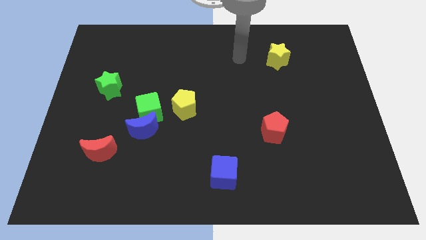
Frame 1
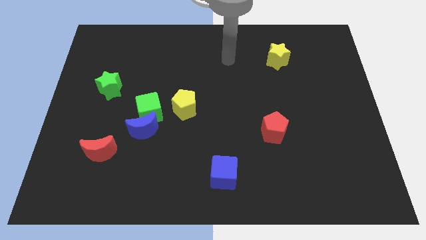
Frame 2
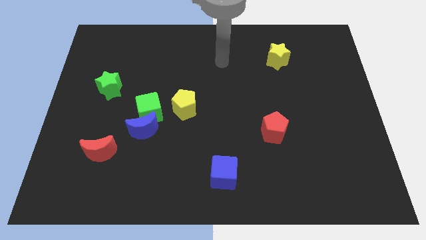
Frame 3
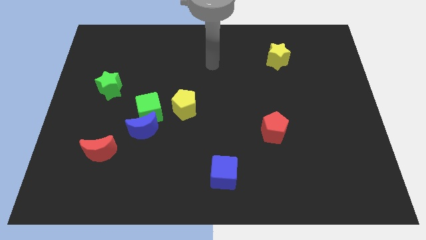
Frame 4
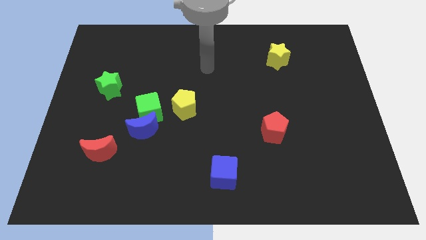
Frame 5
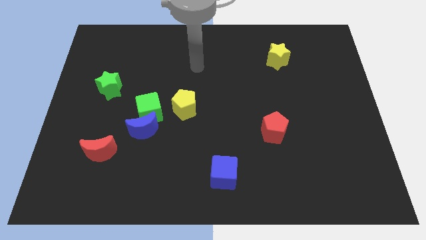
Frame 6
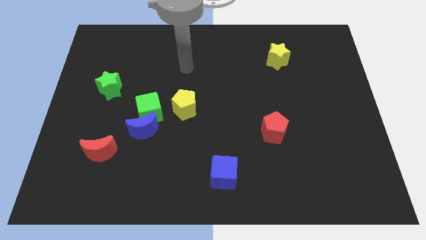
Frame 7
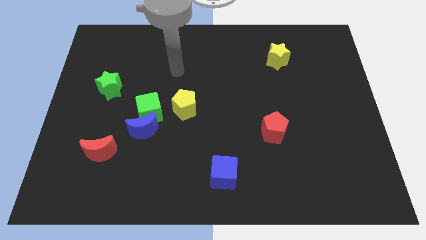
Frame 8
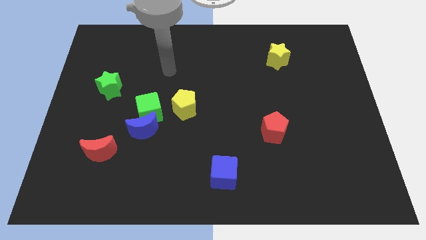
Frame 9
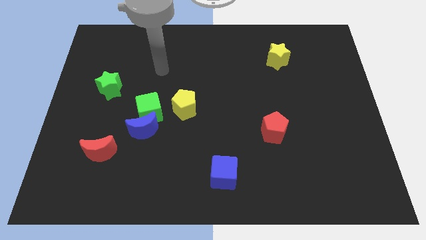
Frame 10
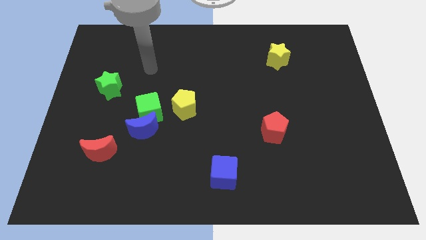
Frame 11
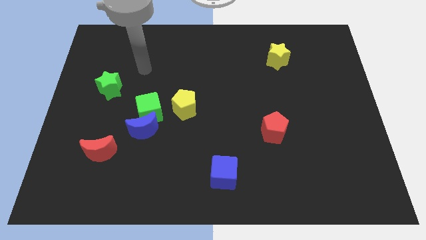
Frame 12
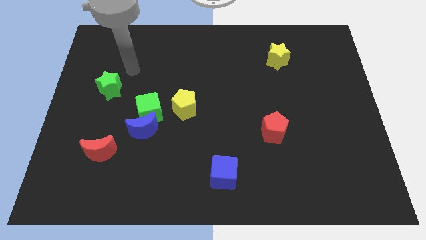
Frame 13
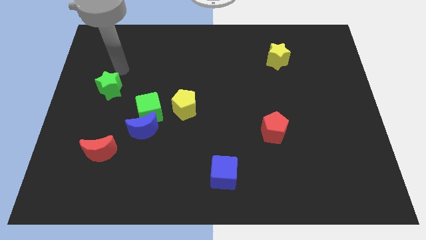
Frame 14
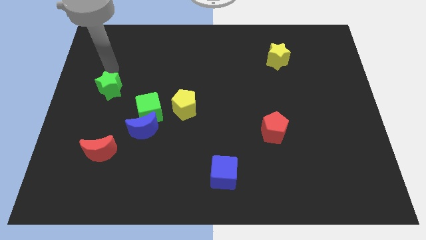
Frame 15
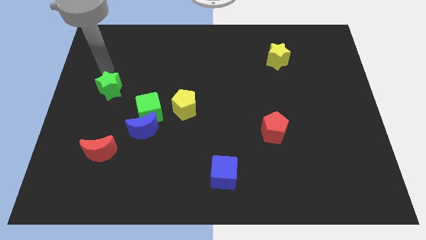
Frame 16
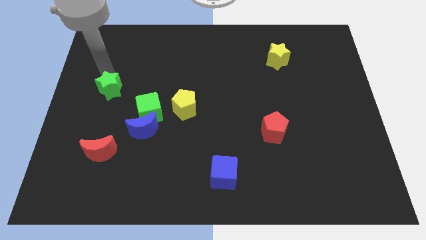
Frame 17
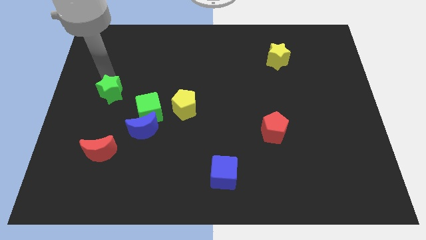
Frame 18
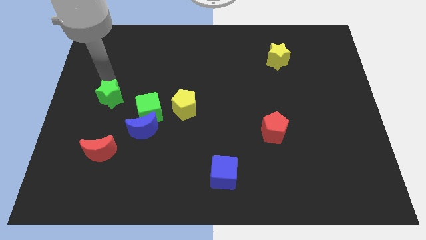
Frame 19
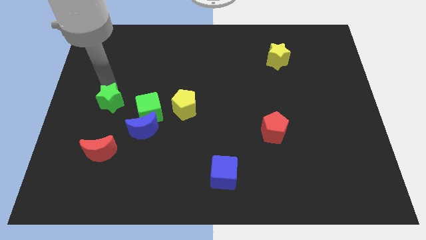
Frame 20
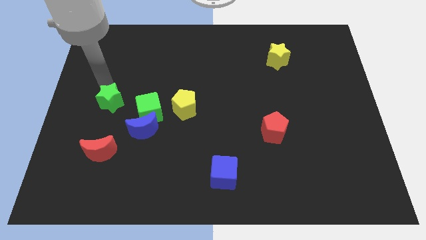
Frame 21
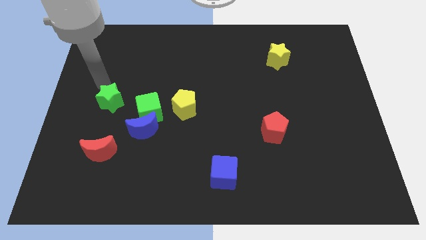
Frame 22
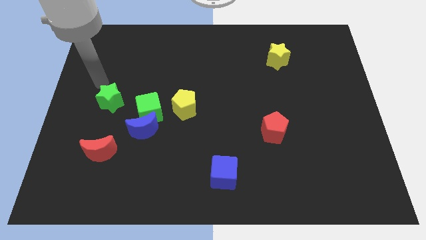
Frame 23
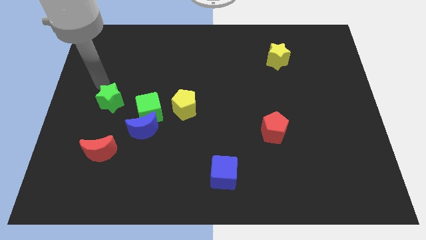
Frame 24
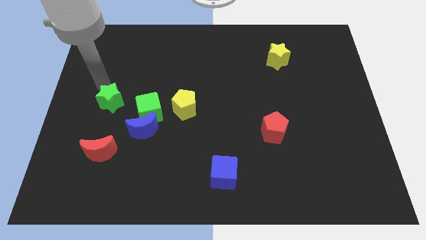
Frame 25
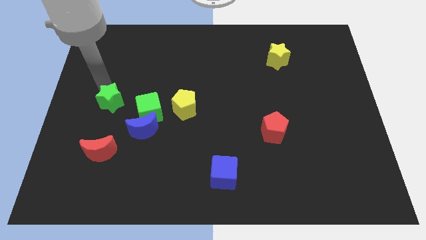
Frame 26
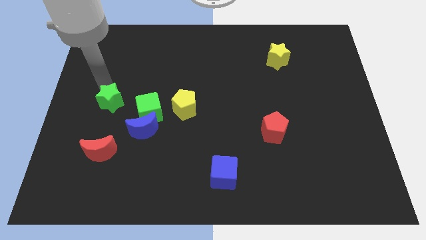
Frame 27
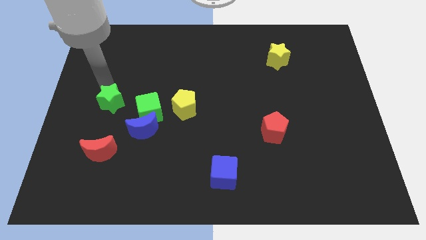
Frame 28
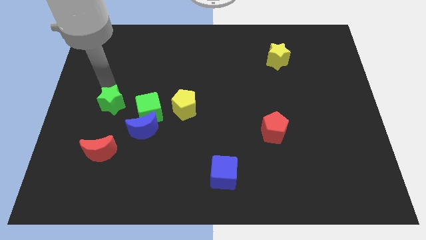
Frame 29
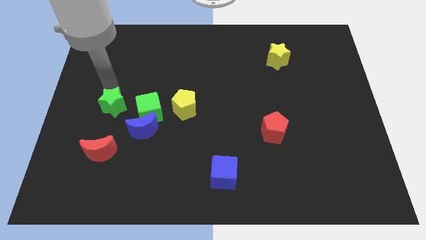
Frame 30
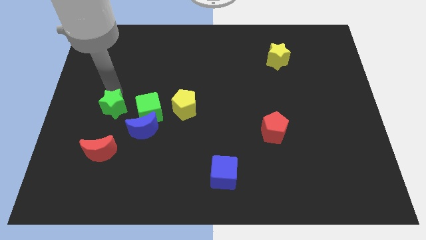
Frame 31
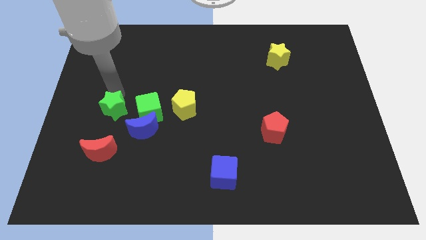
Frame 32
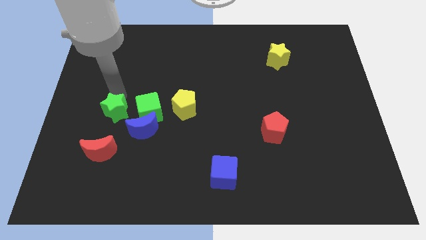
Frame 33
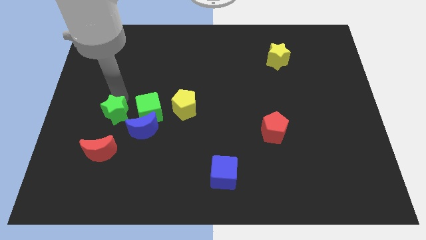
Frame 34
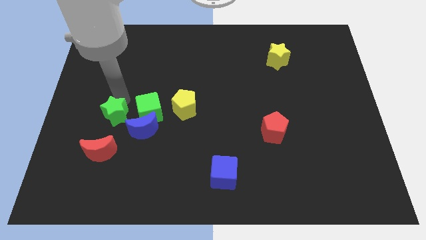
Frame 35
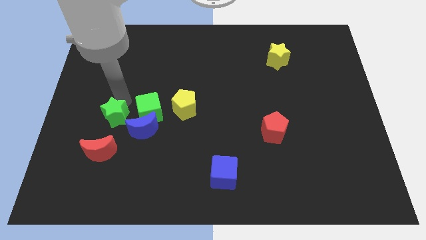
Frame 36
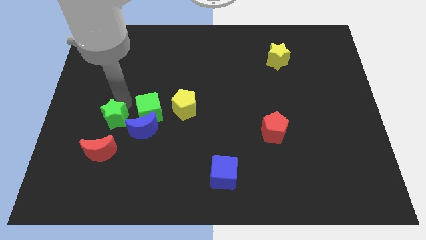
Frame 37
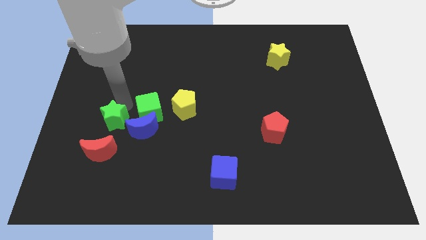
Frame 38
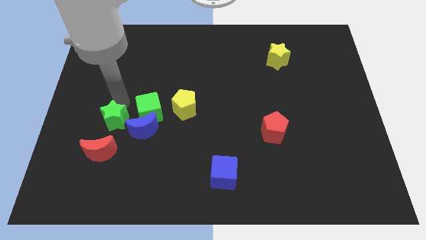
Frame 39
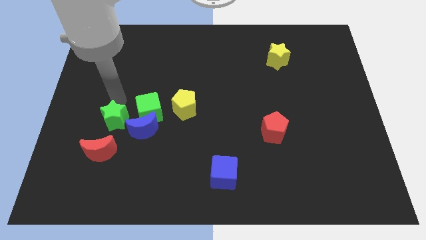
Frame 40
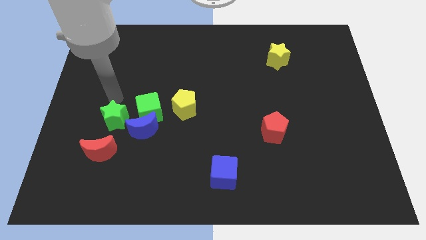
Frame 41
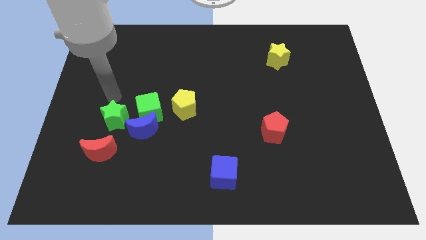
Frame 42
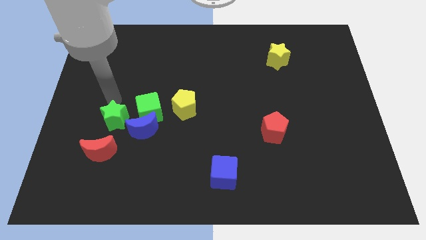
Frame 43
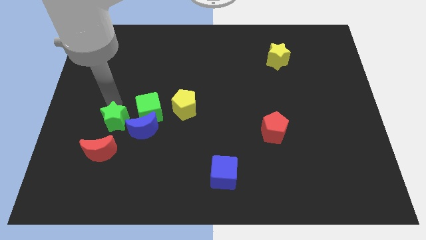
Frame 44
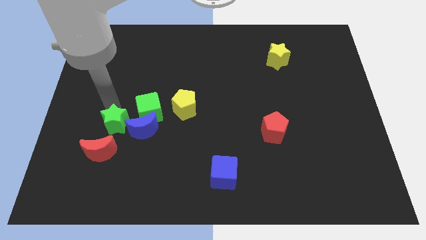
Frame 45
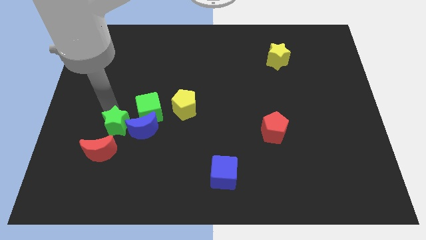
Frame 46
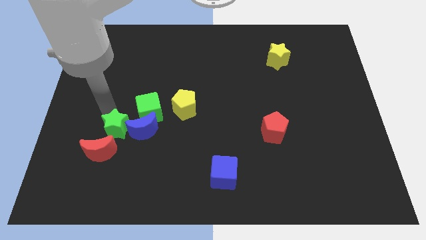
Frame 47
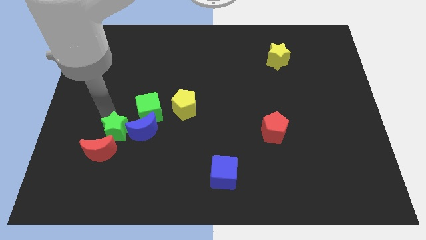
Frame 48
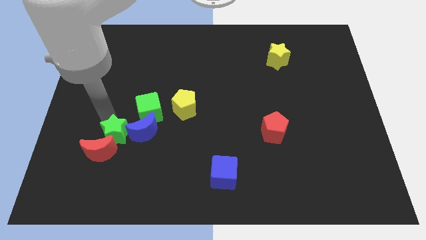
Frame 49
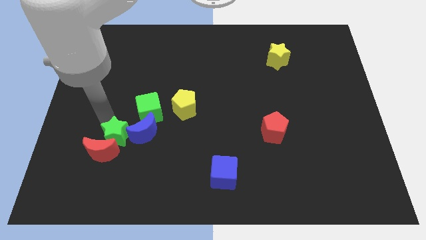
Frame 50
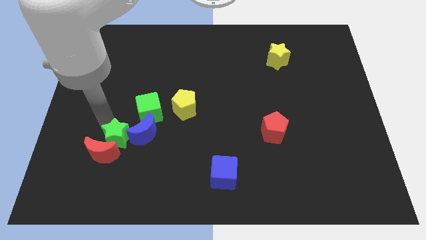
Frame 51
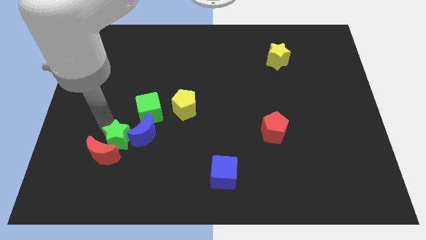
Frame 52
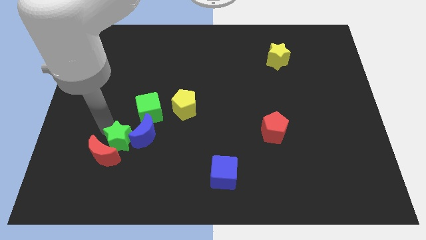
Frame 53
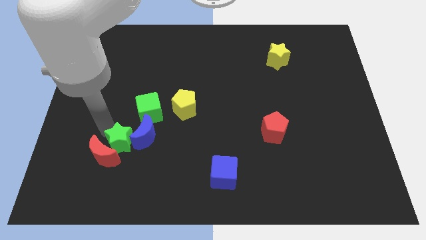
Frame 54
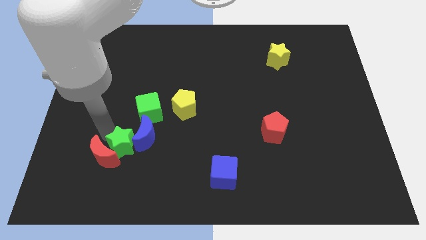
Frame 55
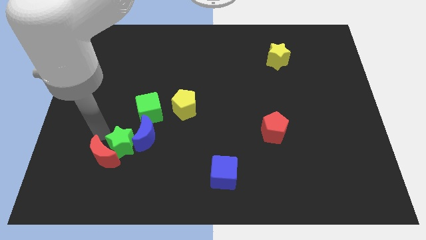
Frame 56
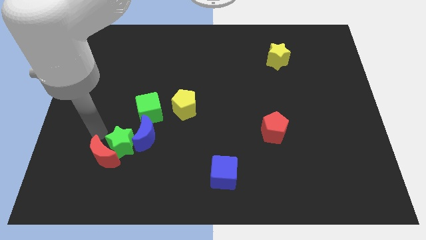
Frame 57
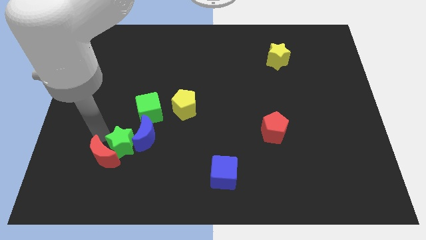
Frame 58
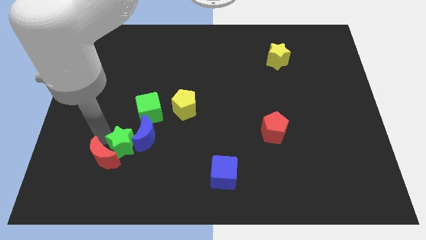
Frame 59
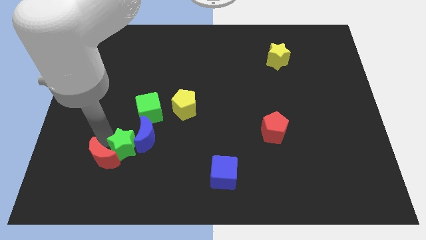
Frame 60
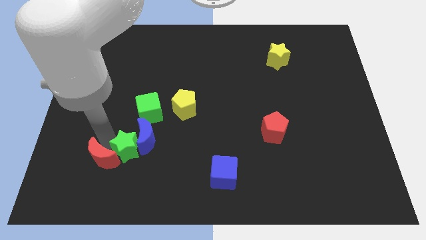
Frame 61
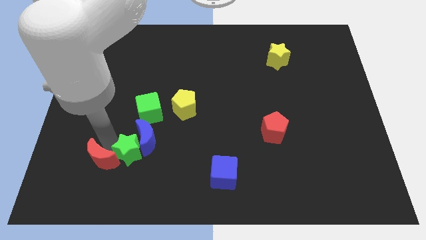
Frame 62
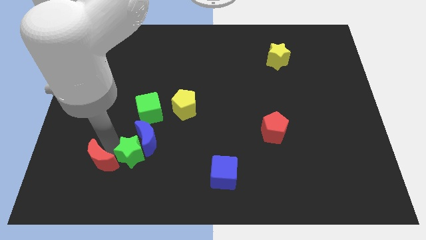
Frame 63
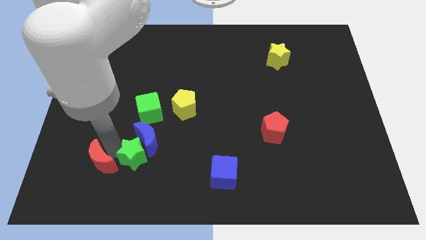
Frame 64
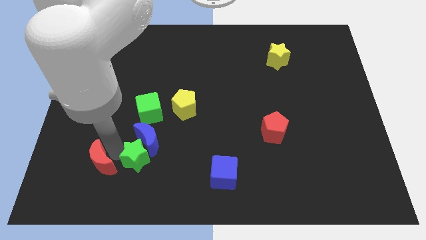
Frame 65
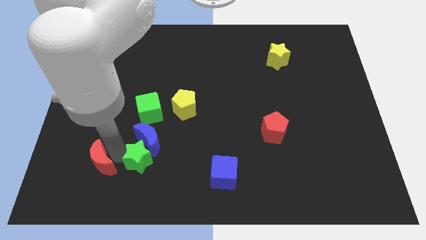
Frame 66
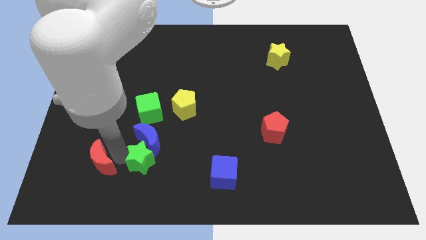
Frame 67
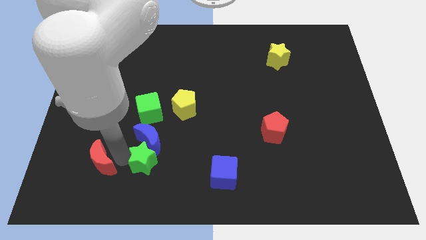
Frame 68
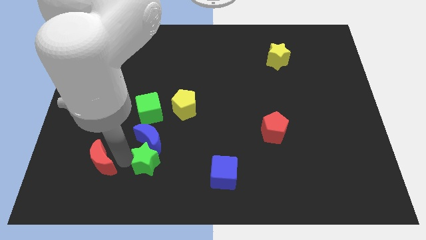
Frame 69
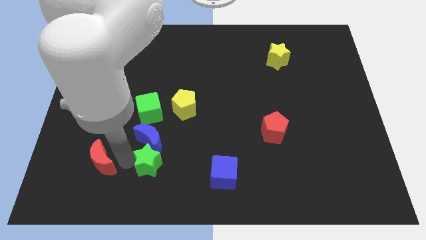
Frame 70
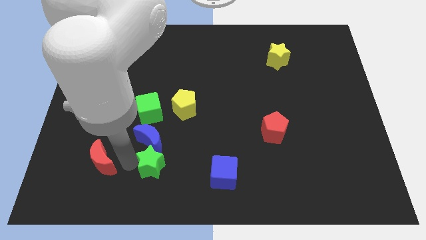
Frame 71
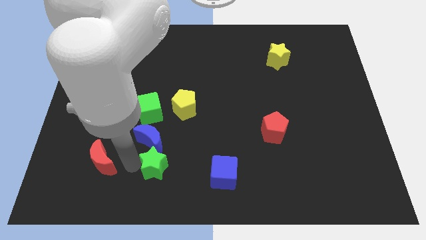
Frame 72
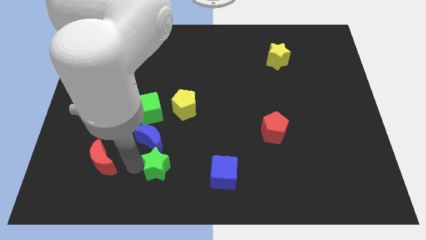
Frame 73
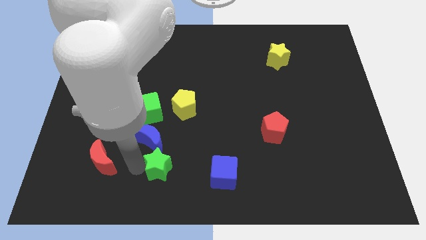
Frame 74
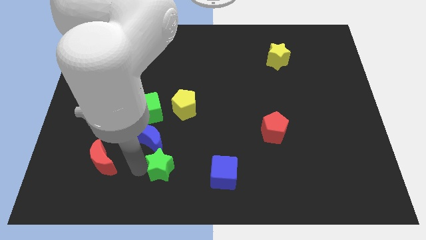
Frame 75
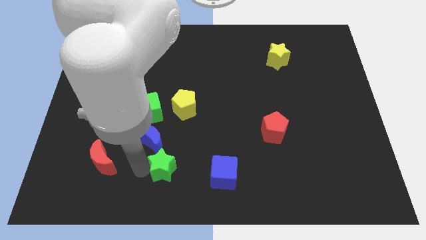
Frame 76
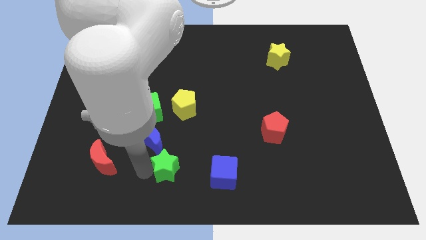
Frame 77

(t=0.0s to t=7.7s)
slide the green star to the bottom
